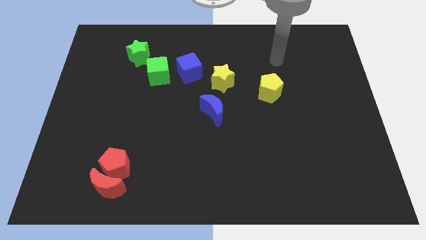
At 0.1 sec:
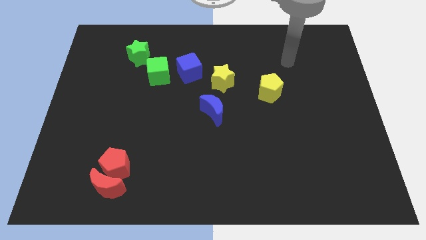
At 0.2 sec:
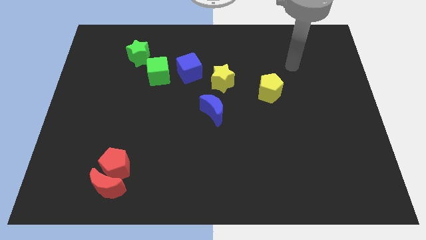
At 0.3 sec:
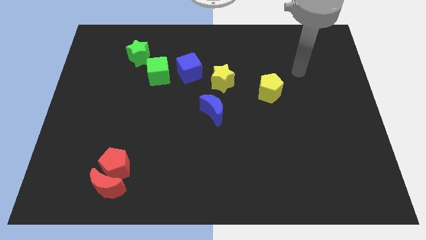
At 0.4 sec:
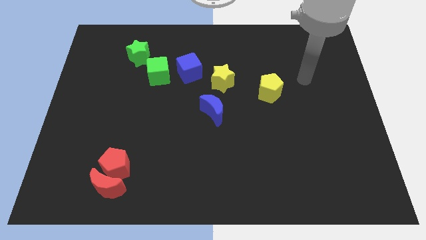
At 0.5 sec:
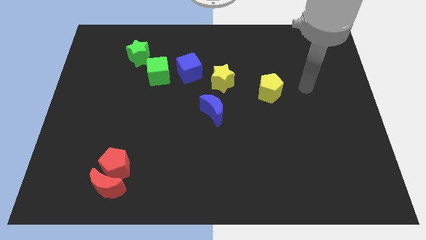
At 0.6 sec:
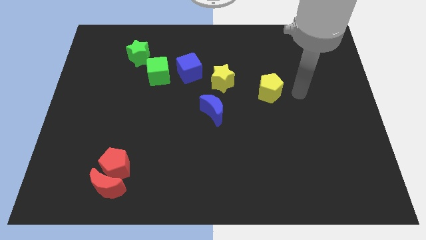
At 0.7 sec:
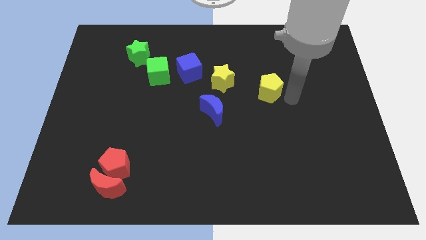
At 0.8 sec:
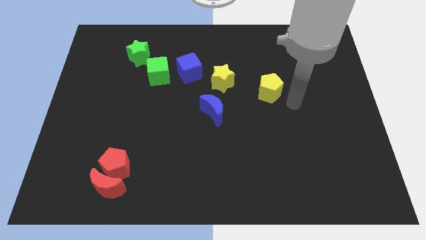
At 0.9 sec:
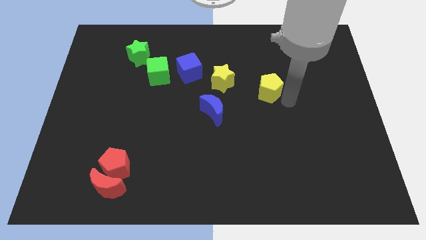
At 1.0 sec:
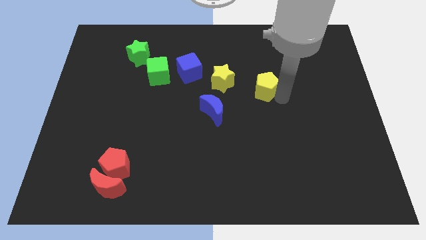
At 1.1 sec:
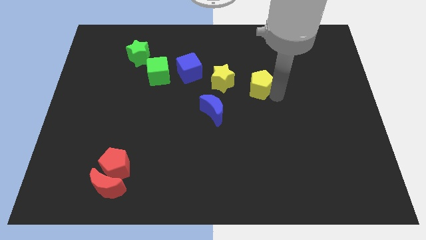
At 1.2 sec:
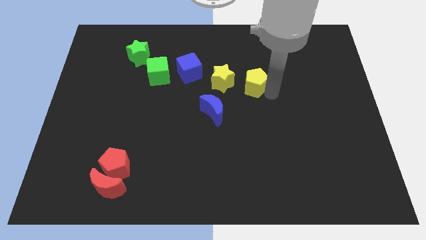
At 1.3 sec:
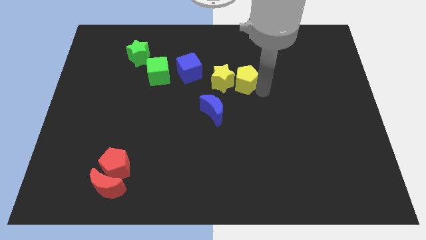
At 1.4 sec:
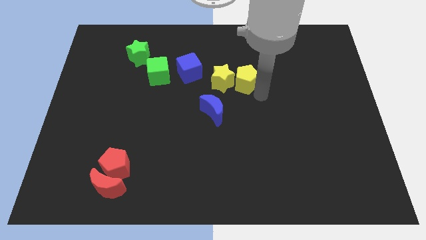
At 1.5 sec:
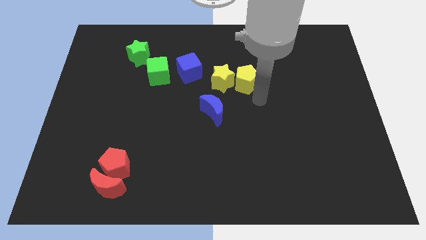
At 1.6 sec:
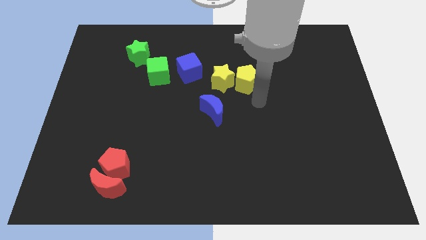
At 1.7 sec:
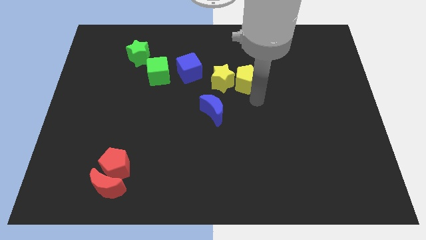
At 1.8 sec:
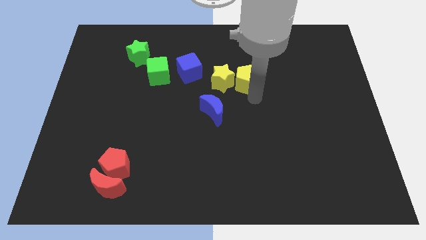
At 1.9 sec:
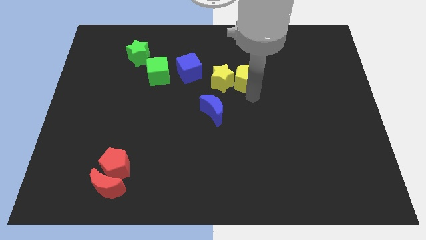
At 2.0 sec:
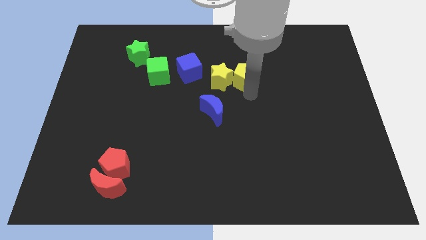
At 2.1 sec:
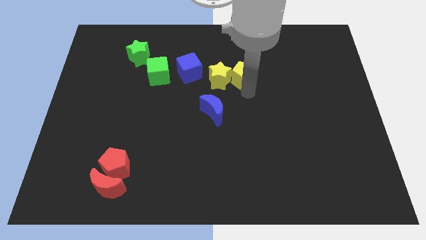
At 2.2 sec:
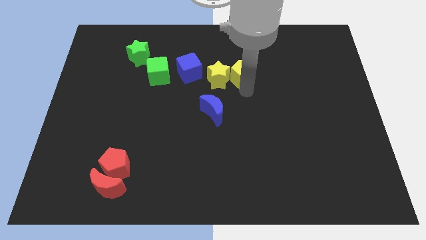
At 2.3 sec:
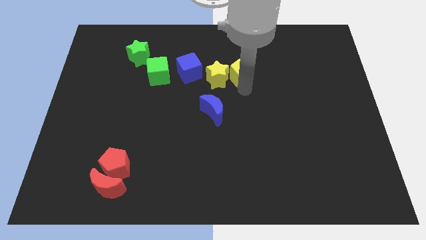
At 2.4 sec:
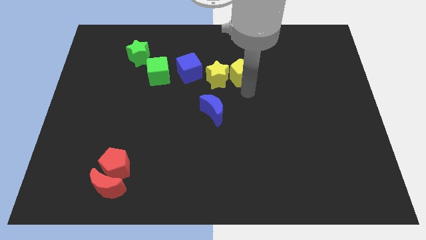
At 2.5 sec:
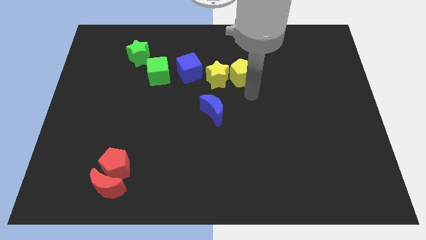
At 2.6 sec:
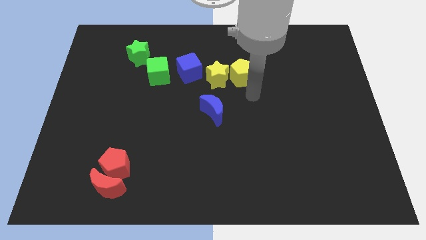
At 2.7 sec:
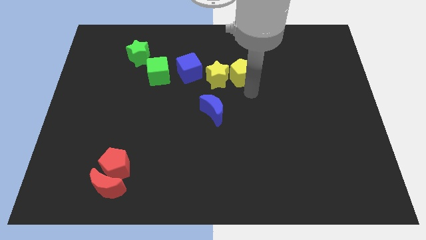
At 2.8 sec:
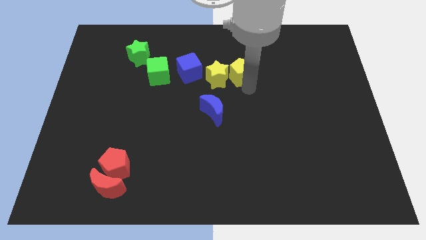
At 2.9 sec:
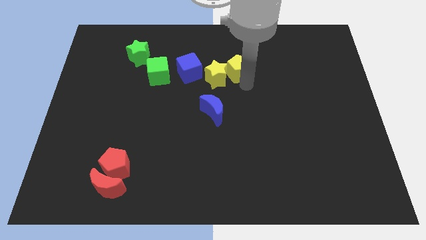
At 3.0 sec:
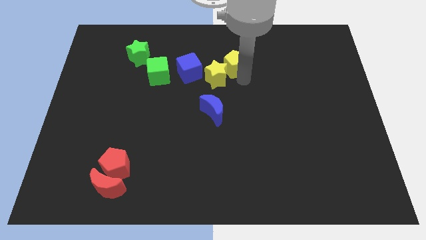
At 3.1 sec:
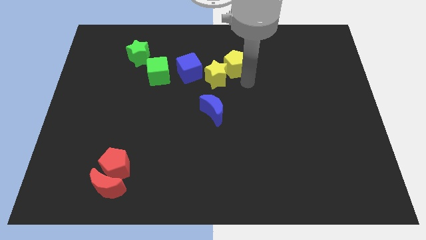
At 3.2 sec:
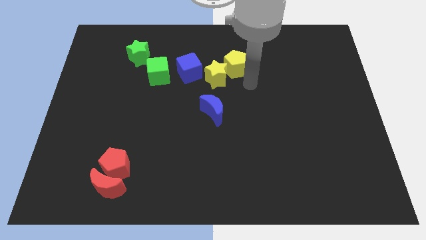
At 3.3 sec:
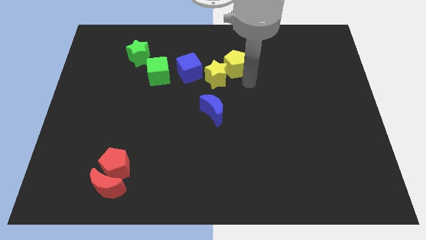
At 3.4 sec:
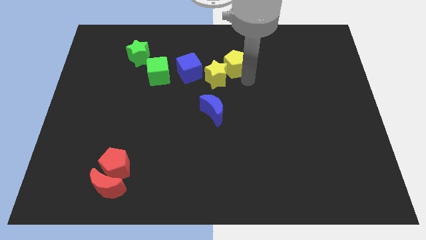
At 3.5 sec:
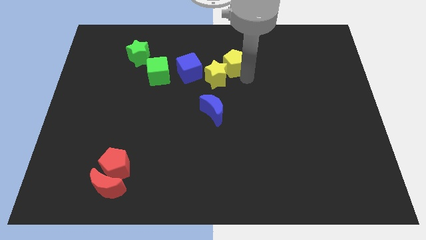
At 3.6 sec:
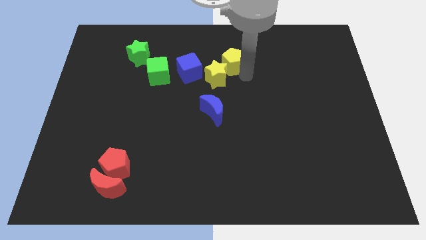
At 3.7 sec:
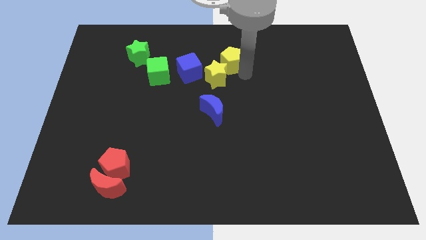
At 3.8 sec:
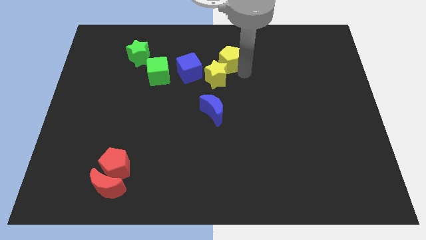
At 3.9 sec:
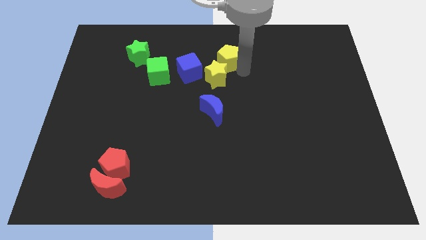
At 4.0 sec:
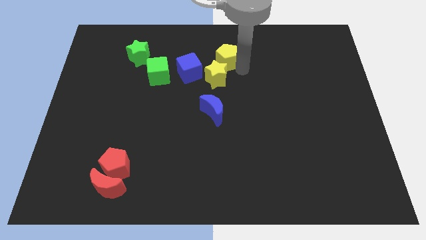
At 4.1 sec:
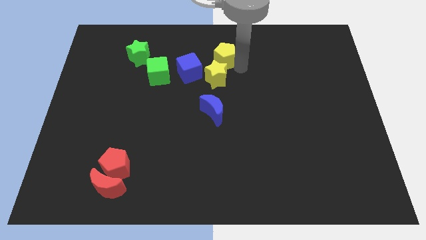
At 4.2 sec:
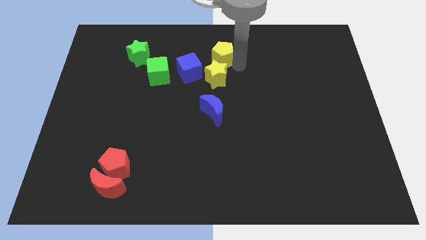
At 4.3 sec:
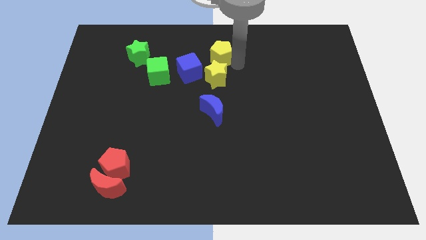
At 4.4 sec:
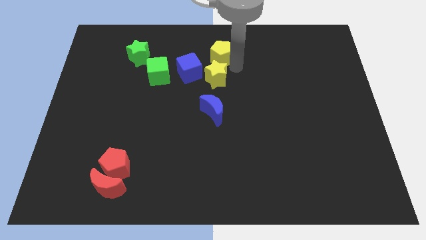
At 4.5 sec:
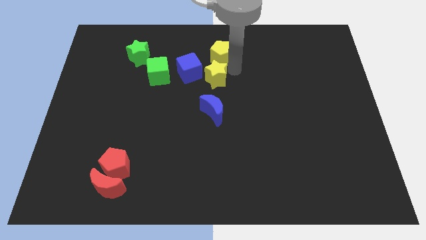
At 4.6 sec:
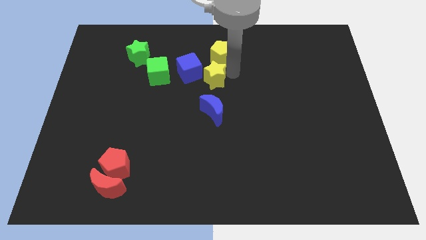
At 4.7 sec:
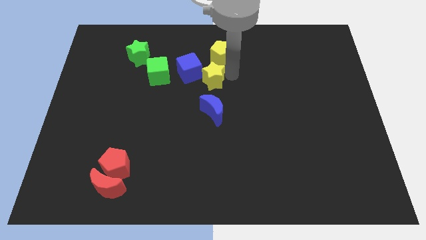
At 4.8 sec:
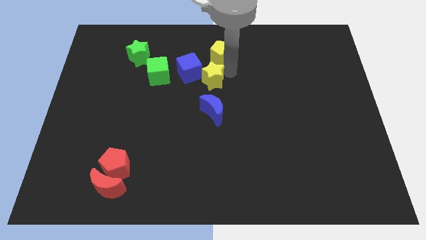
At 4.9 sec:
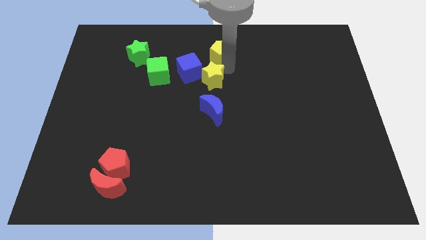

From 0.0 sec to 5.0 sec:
push the yellow pentagon to the towards your base

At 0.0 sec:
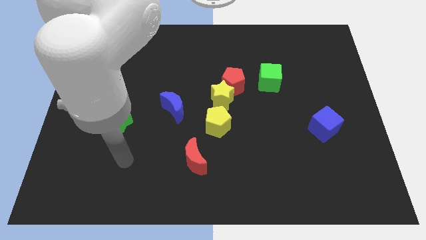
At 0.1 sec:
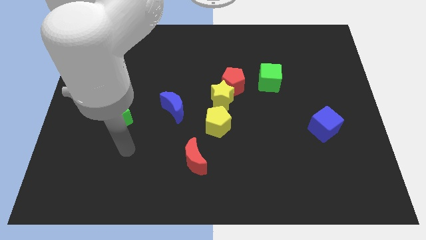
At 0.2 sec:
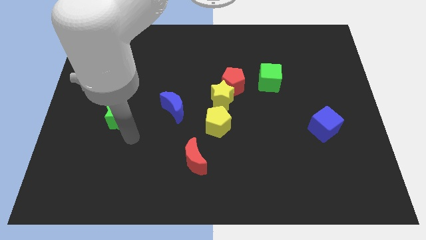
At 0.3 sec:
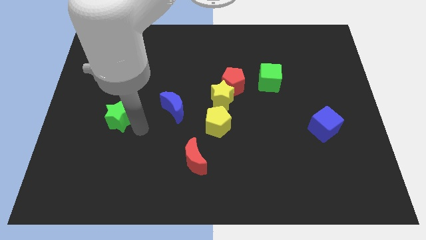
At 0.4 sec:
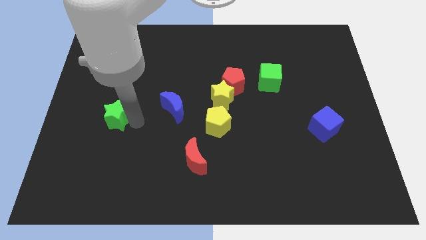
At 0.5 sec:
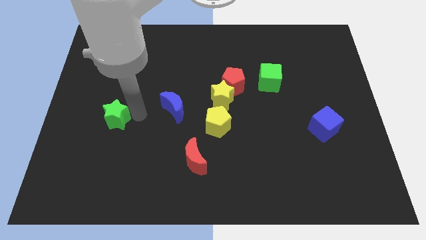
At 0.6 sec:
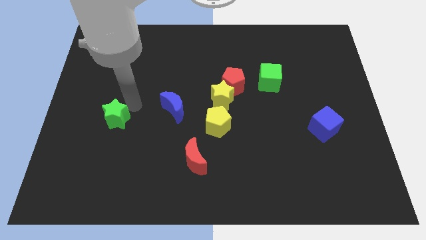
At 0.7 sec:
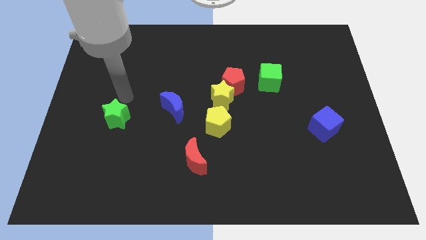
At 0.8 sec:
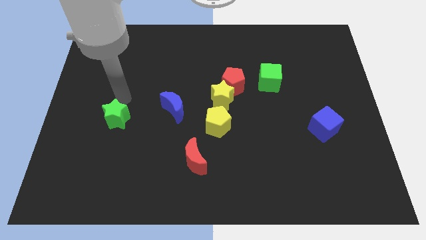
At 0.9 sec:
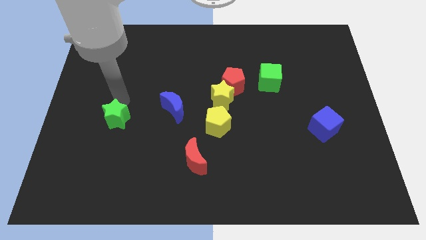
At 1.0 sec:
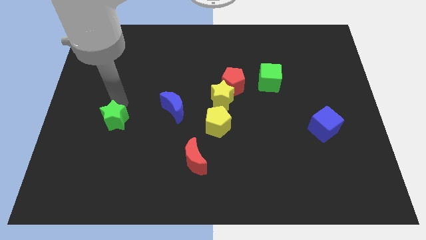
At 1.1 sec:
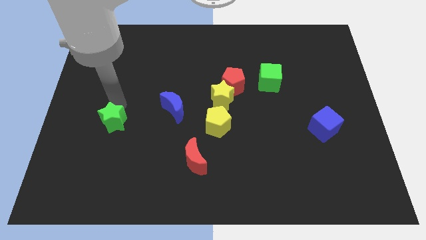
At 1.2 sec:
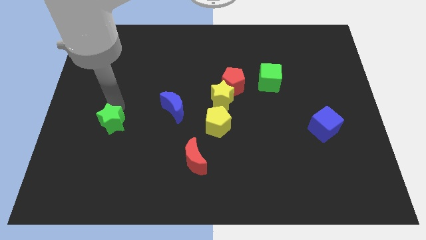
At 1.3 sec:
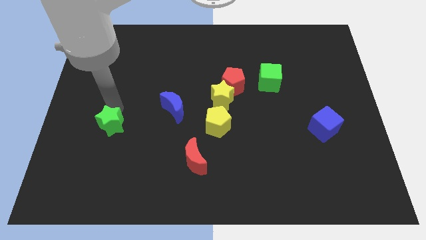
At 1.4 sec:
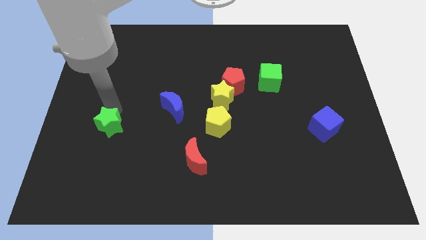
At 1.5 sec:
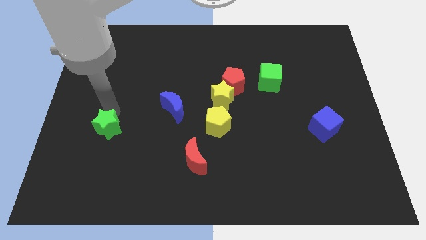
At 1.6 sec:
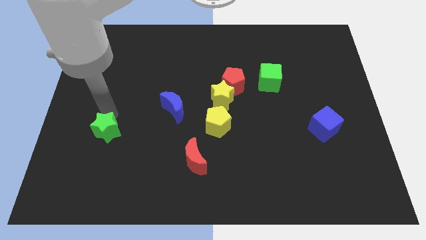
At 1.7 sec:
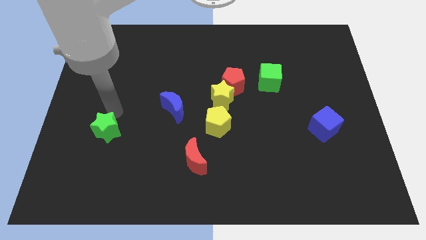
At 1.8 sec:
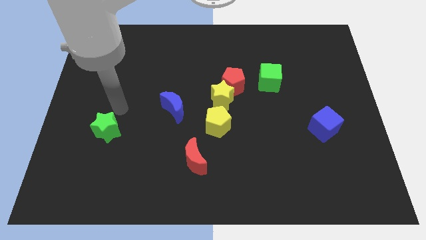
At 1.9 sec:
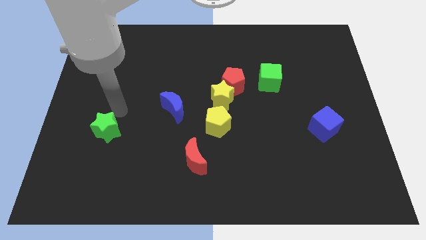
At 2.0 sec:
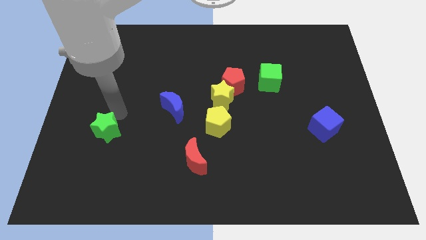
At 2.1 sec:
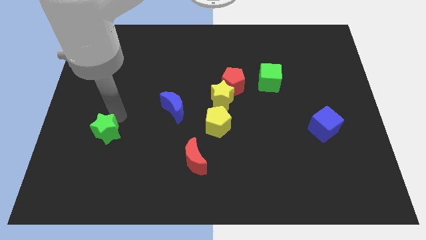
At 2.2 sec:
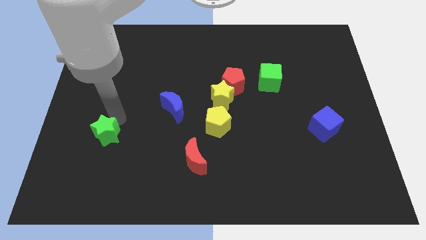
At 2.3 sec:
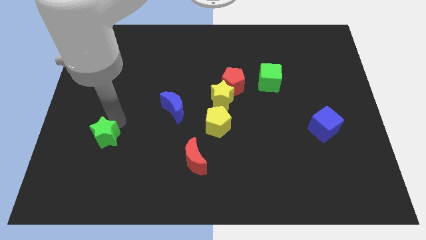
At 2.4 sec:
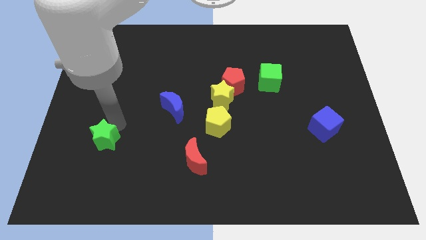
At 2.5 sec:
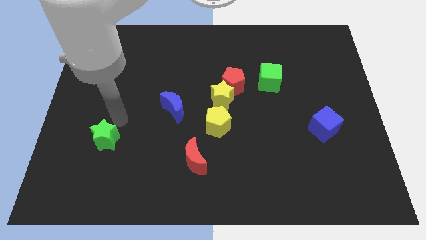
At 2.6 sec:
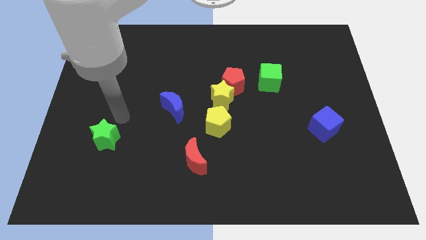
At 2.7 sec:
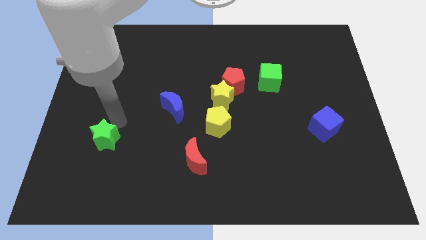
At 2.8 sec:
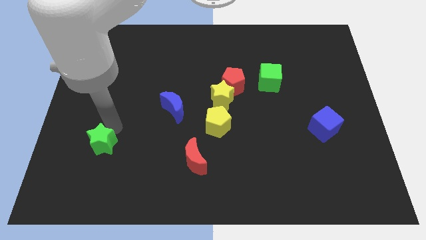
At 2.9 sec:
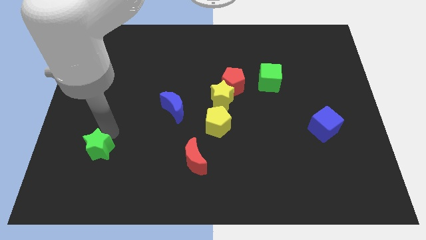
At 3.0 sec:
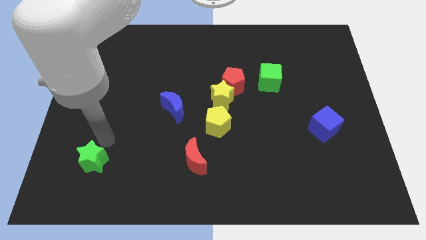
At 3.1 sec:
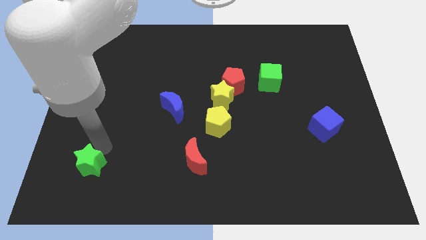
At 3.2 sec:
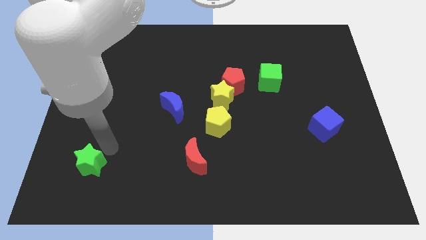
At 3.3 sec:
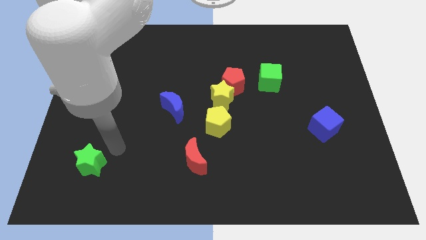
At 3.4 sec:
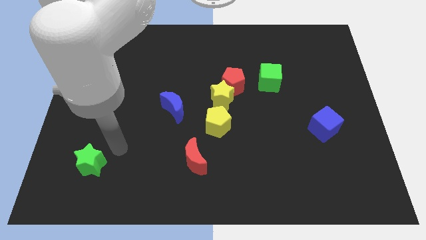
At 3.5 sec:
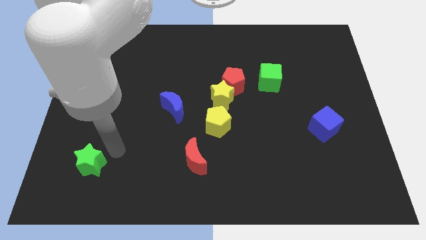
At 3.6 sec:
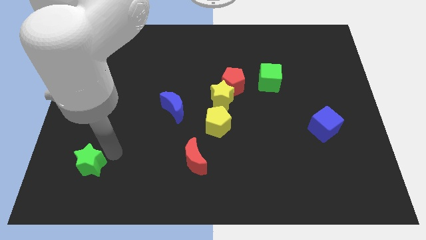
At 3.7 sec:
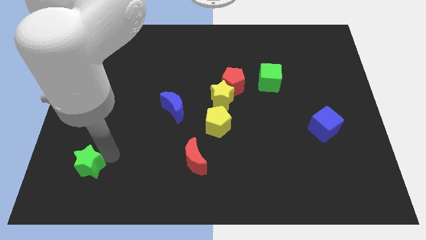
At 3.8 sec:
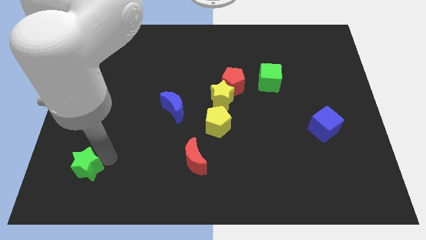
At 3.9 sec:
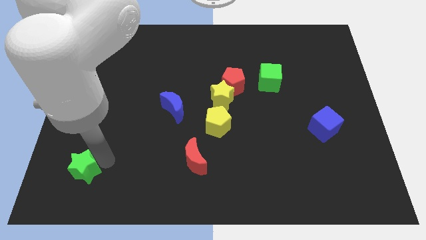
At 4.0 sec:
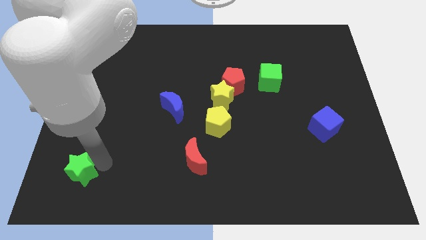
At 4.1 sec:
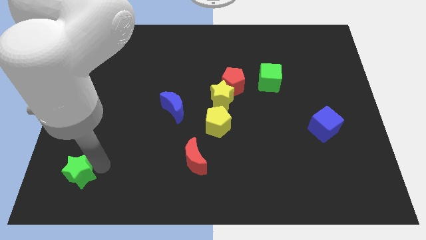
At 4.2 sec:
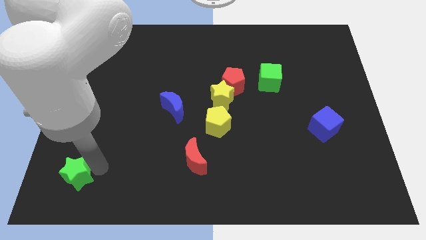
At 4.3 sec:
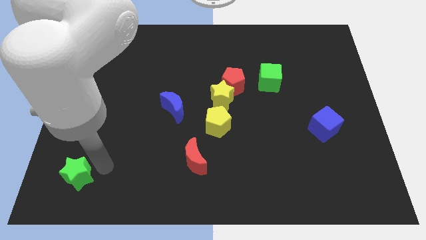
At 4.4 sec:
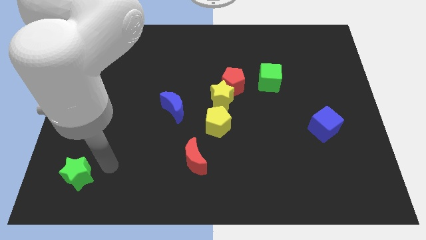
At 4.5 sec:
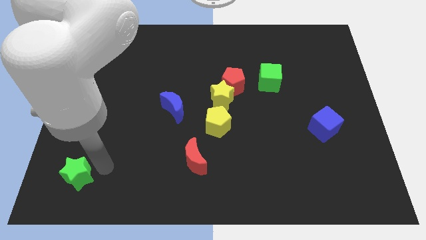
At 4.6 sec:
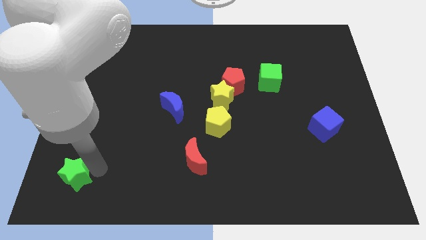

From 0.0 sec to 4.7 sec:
put the green star to the bottom left of the board
